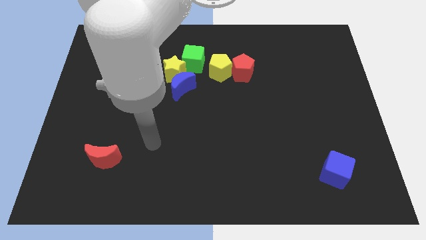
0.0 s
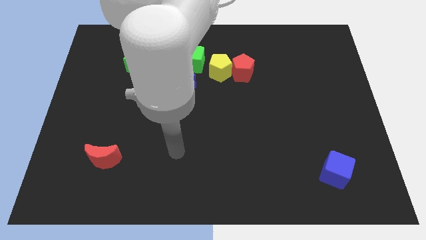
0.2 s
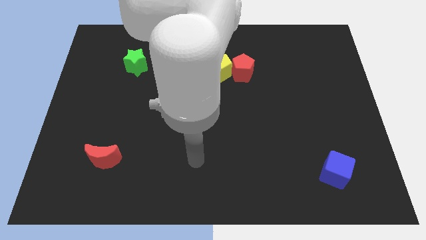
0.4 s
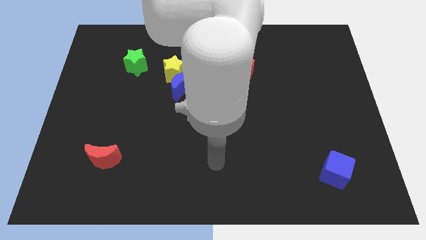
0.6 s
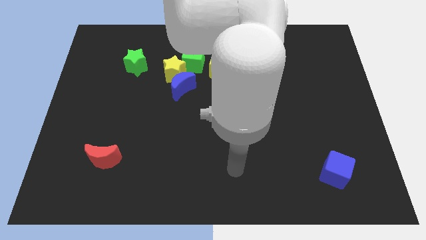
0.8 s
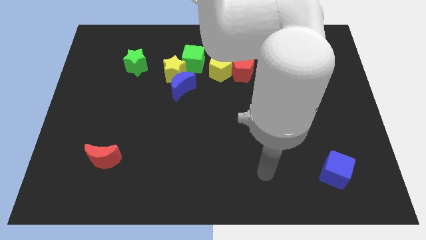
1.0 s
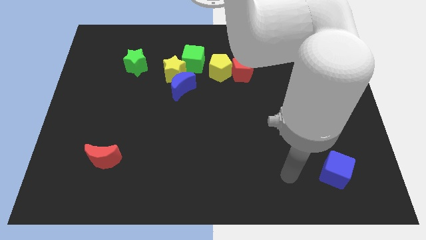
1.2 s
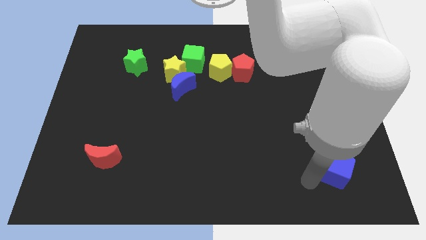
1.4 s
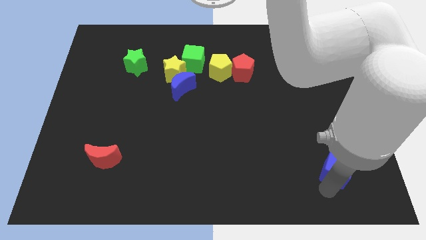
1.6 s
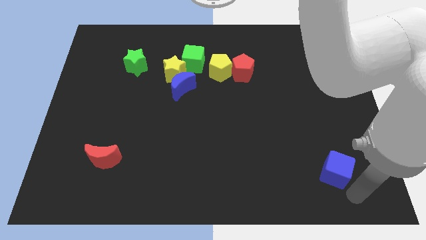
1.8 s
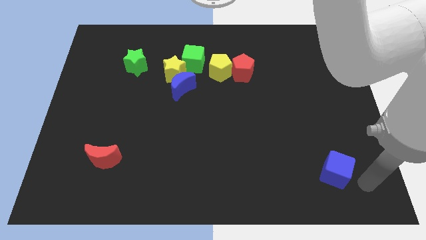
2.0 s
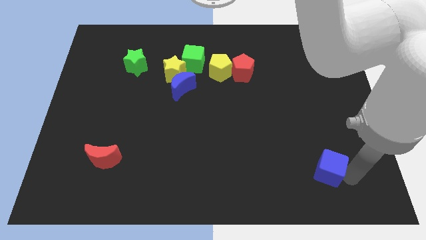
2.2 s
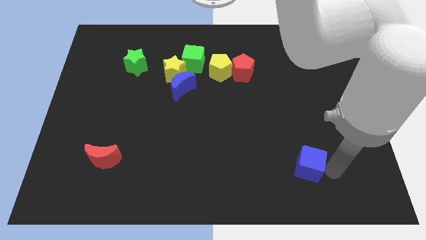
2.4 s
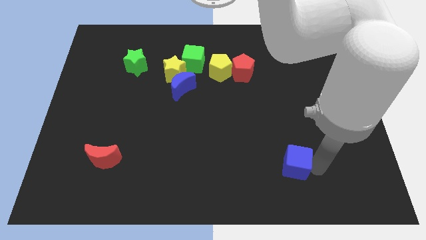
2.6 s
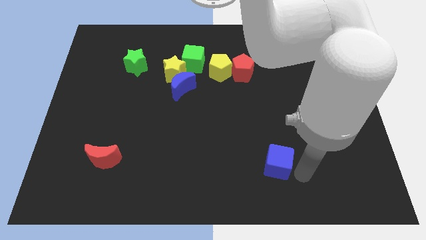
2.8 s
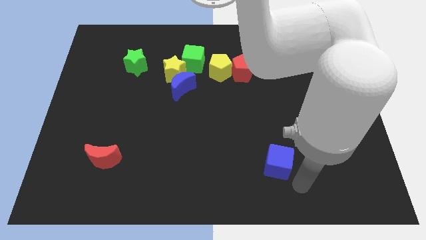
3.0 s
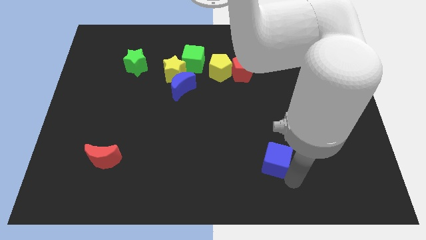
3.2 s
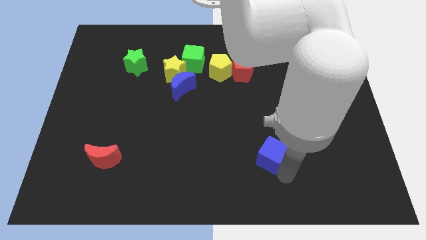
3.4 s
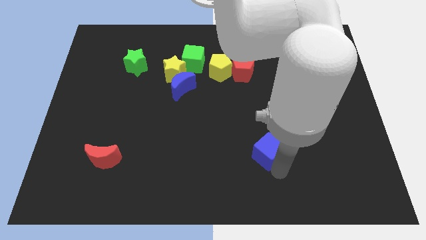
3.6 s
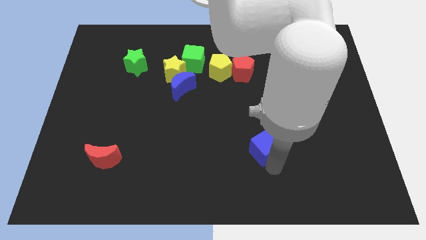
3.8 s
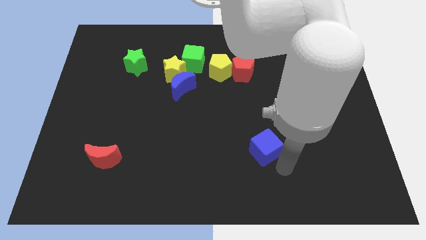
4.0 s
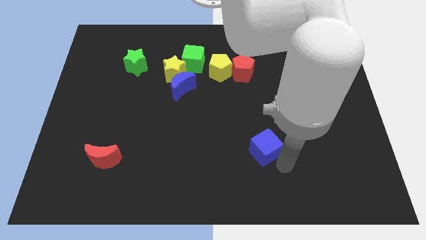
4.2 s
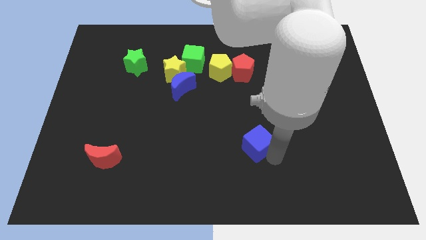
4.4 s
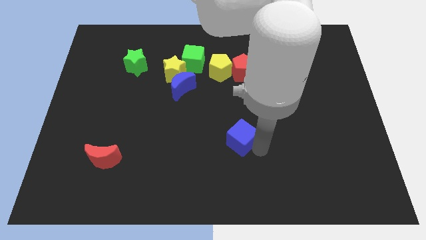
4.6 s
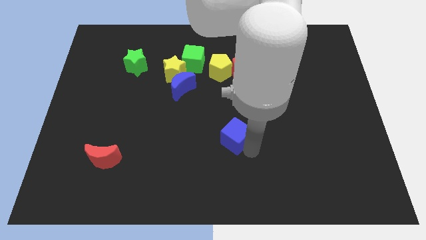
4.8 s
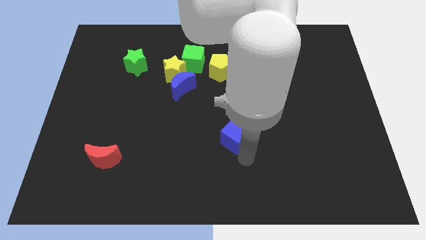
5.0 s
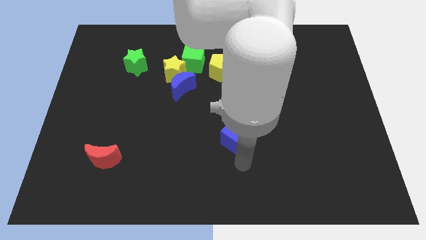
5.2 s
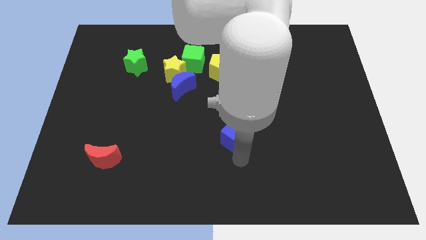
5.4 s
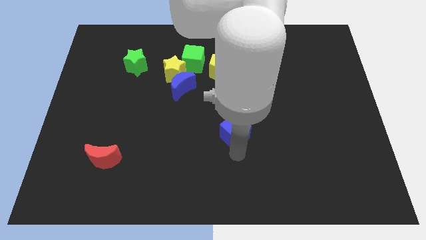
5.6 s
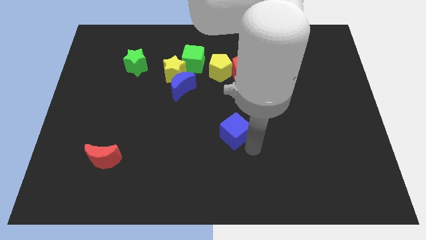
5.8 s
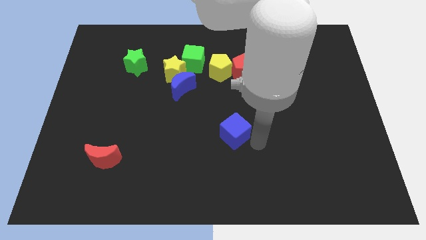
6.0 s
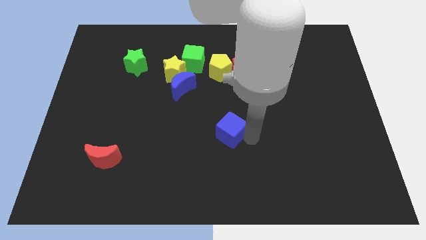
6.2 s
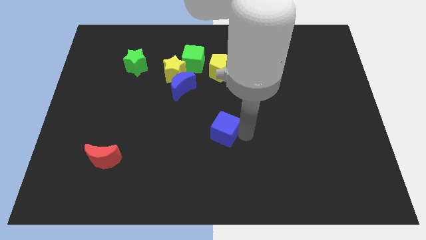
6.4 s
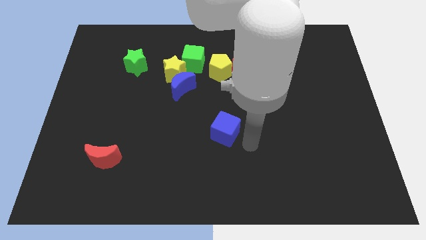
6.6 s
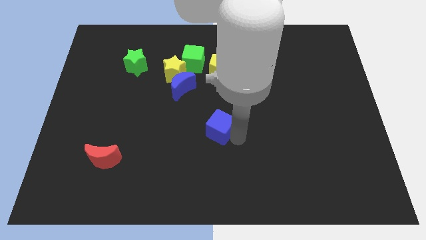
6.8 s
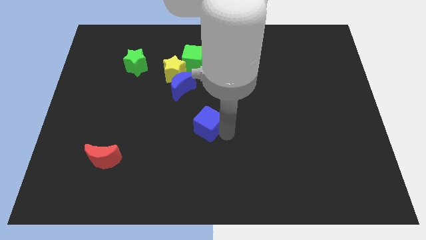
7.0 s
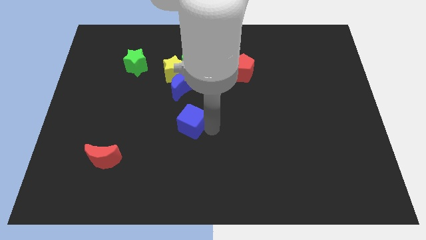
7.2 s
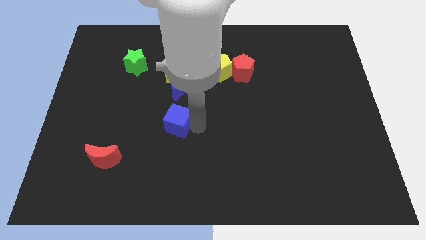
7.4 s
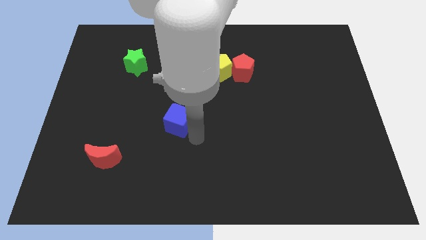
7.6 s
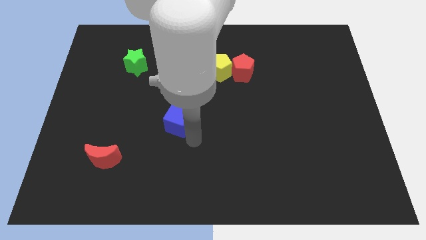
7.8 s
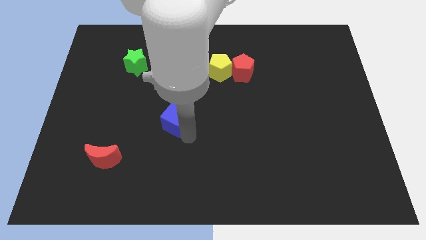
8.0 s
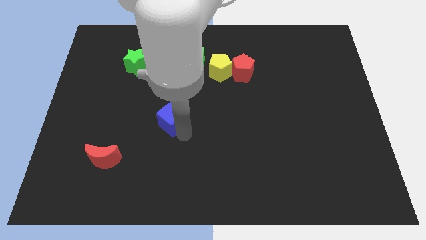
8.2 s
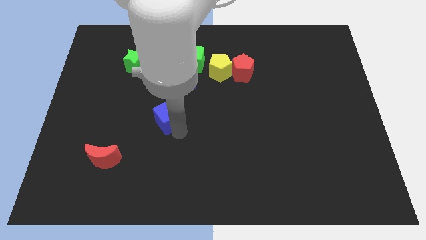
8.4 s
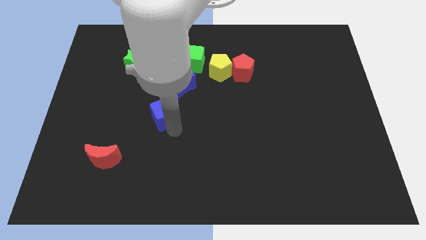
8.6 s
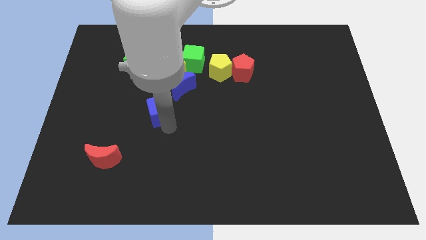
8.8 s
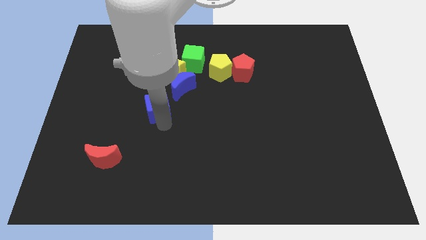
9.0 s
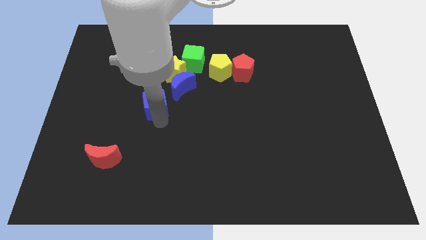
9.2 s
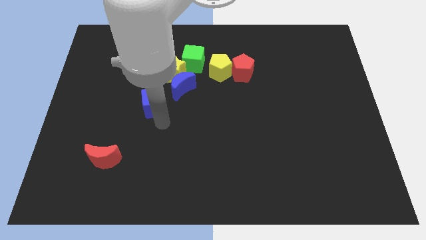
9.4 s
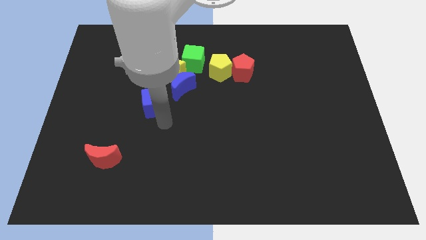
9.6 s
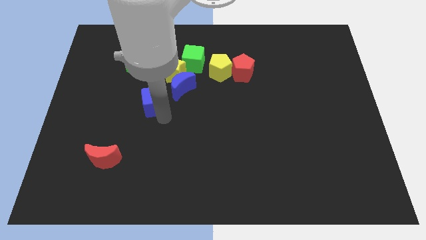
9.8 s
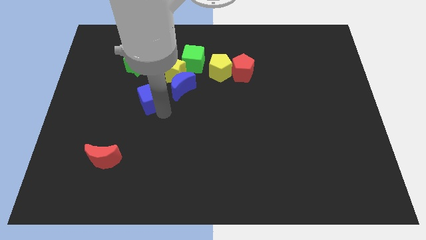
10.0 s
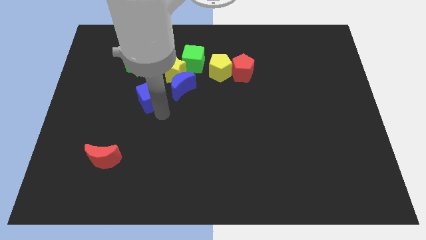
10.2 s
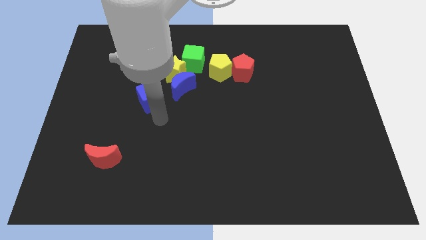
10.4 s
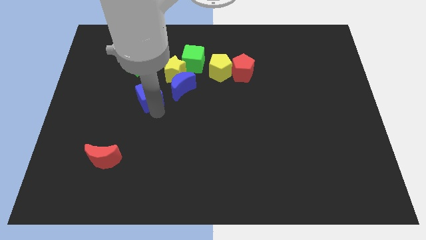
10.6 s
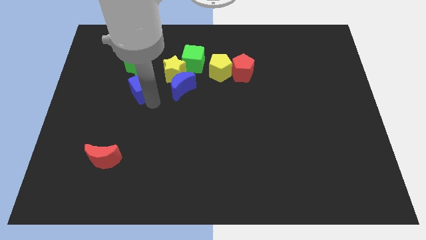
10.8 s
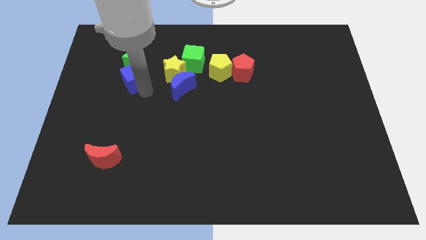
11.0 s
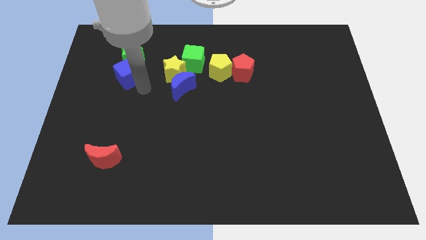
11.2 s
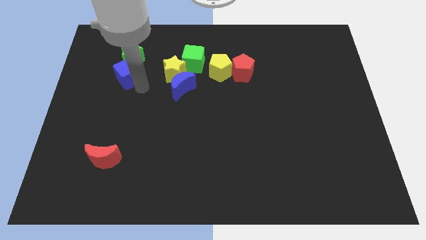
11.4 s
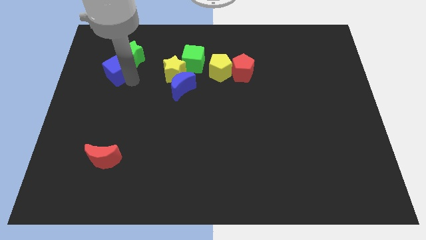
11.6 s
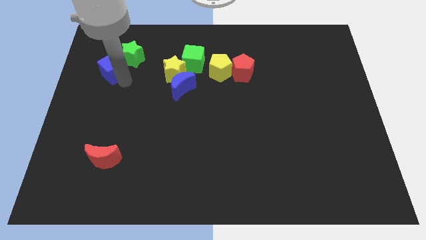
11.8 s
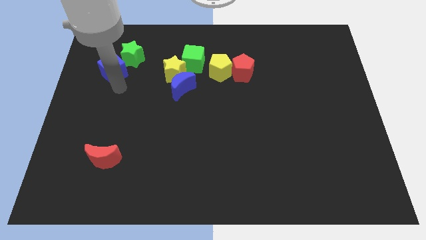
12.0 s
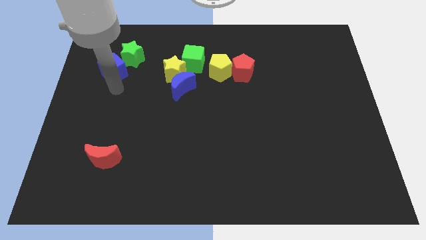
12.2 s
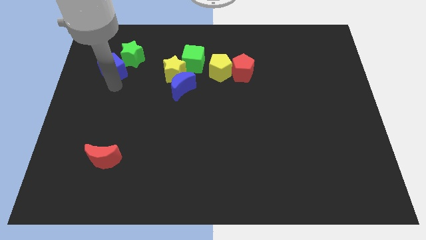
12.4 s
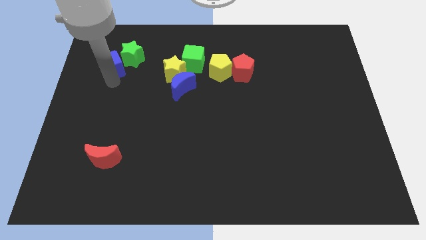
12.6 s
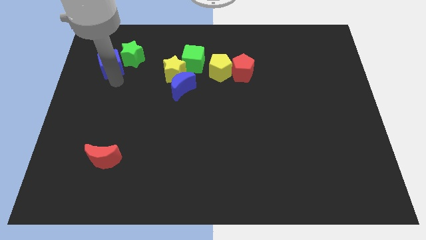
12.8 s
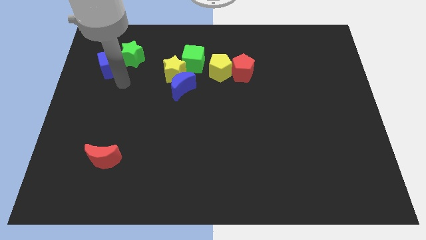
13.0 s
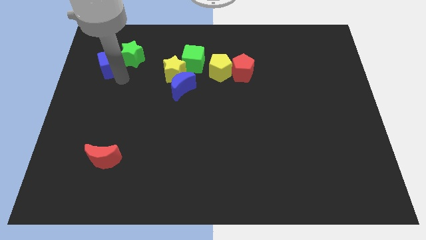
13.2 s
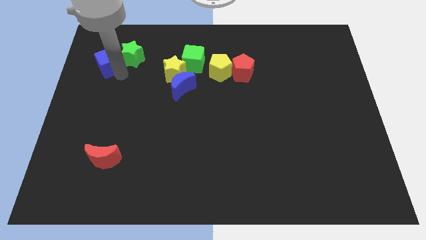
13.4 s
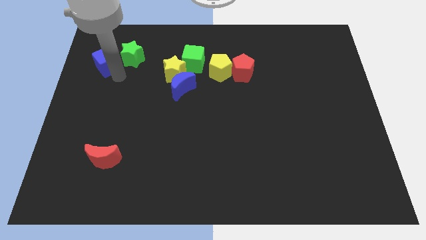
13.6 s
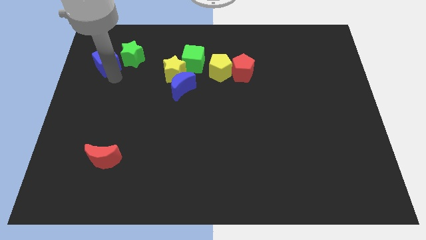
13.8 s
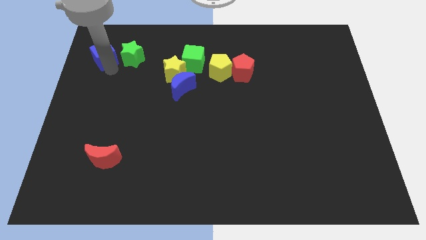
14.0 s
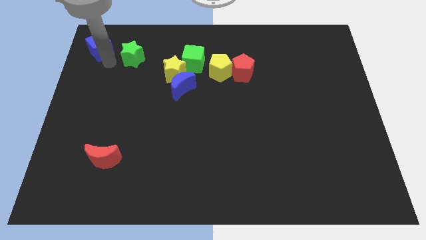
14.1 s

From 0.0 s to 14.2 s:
put the blue cube to the top left
